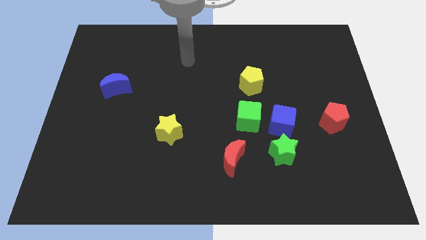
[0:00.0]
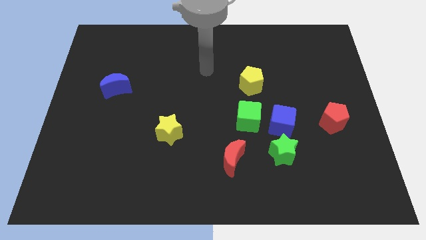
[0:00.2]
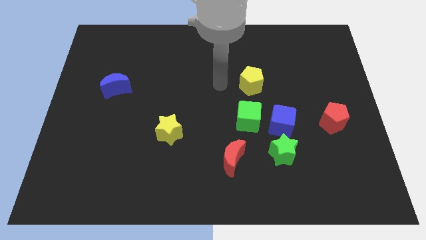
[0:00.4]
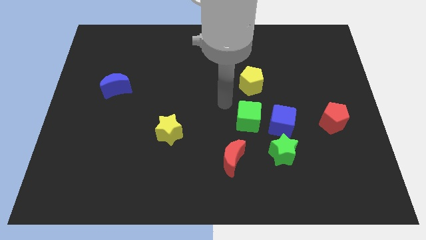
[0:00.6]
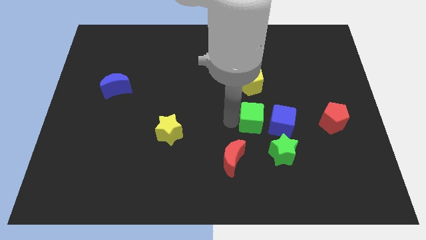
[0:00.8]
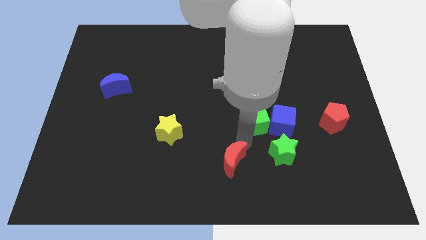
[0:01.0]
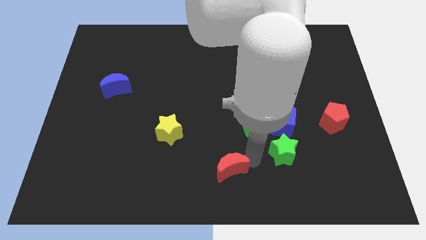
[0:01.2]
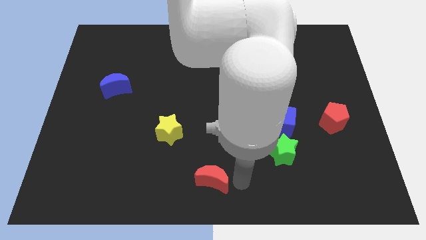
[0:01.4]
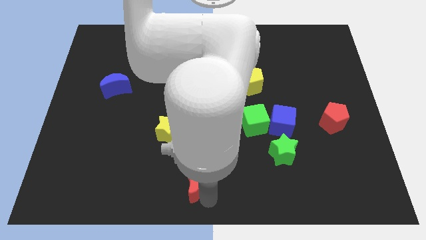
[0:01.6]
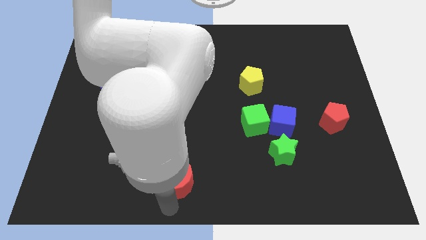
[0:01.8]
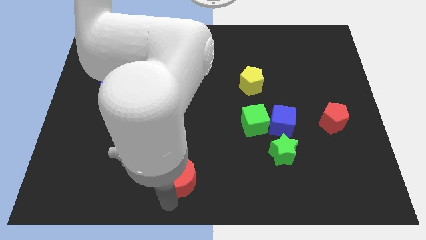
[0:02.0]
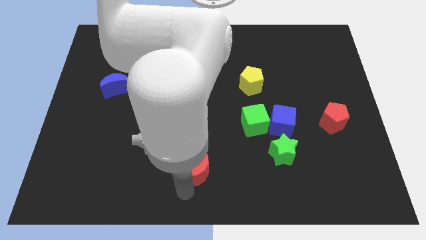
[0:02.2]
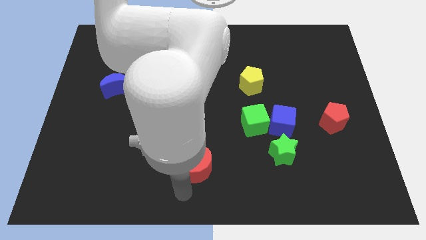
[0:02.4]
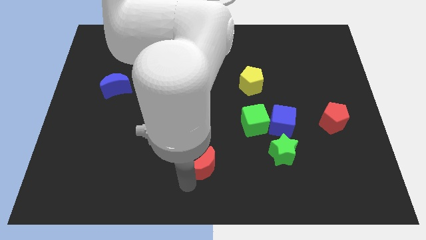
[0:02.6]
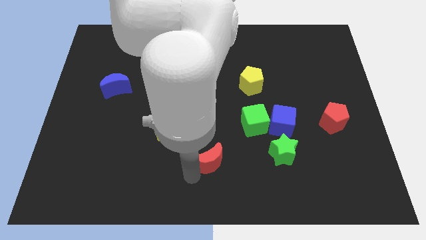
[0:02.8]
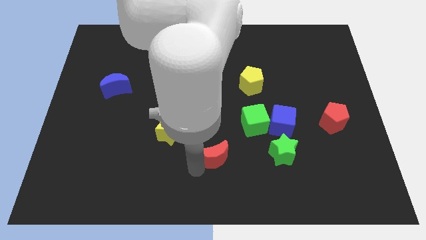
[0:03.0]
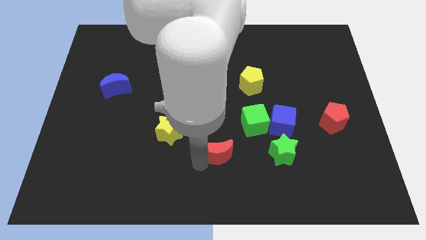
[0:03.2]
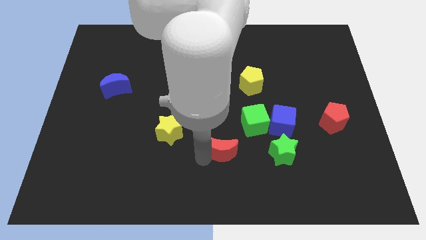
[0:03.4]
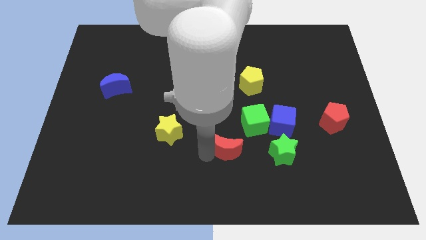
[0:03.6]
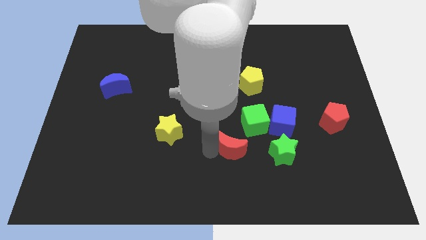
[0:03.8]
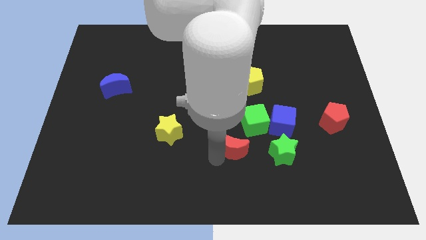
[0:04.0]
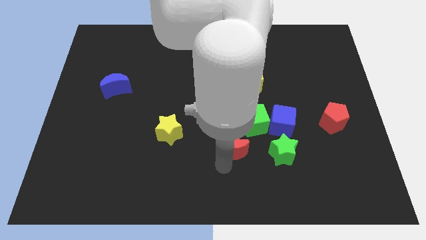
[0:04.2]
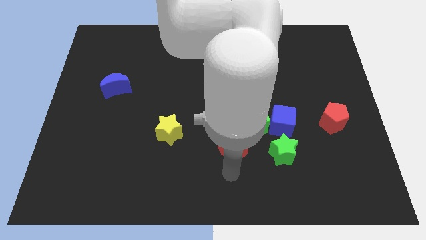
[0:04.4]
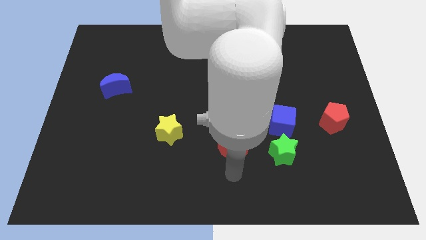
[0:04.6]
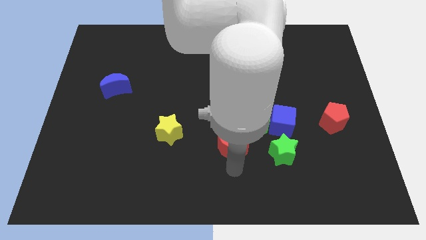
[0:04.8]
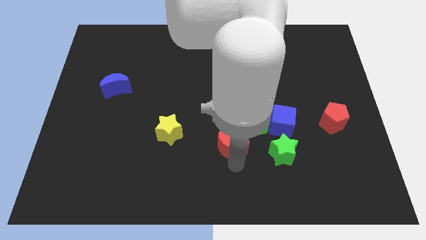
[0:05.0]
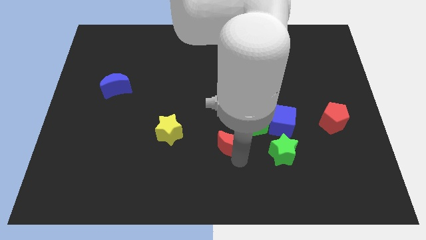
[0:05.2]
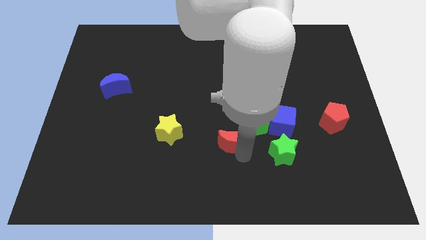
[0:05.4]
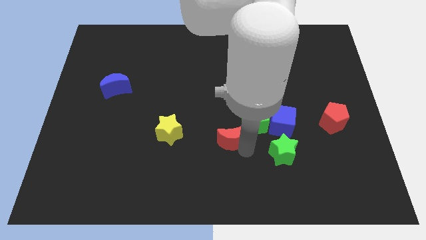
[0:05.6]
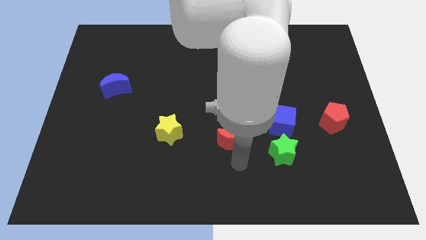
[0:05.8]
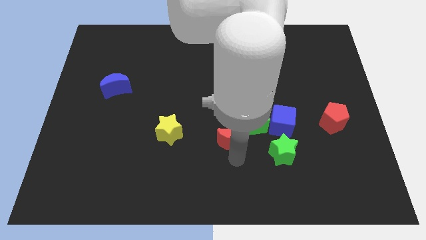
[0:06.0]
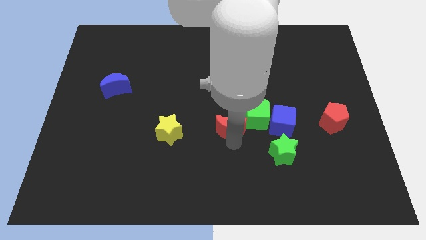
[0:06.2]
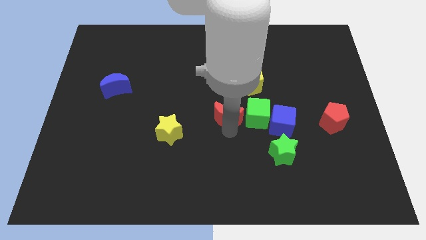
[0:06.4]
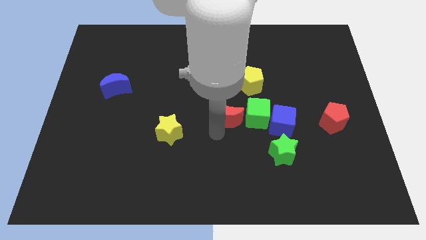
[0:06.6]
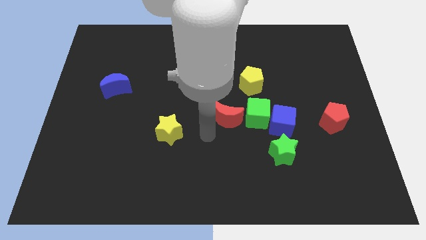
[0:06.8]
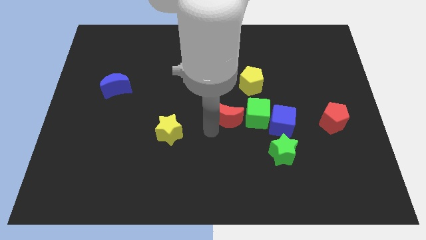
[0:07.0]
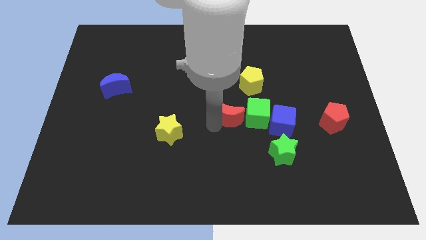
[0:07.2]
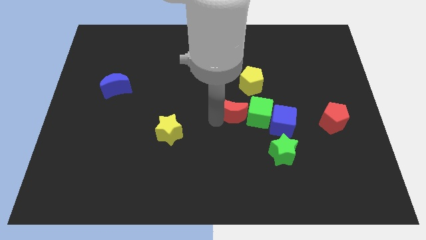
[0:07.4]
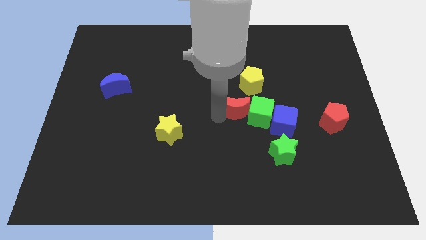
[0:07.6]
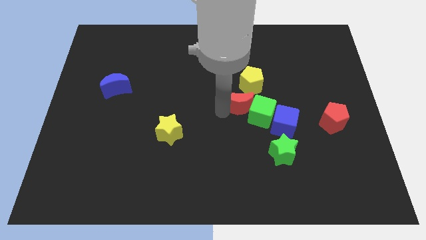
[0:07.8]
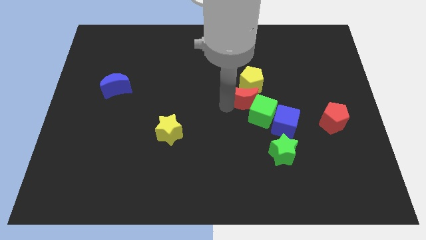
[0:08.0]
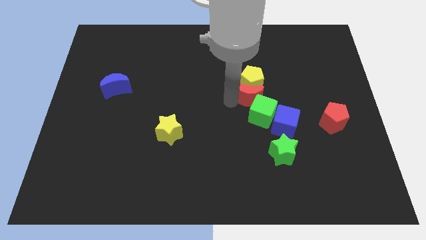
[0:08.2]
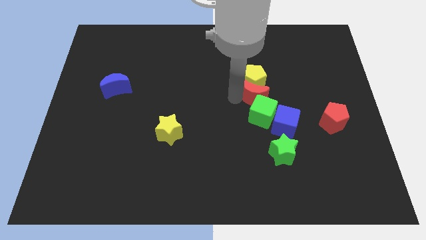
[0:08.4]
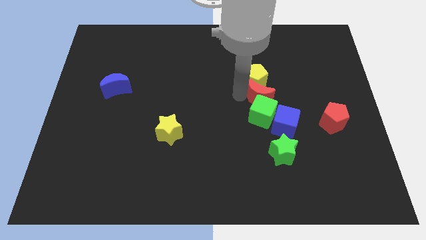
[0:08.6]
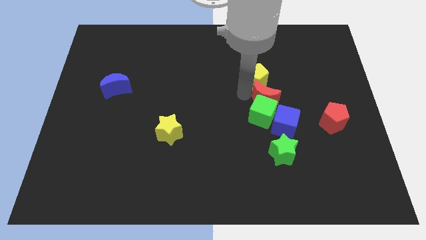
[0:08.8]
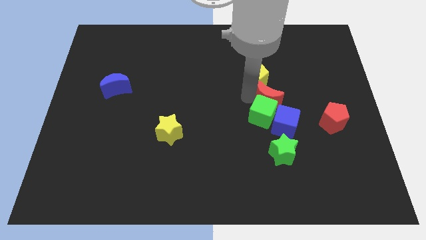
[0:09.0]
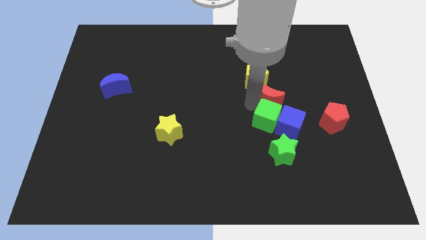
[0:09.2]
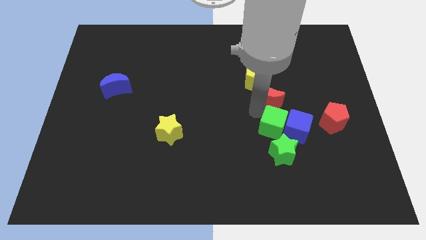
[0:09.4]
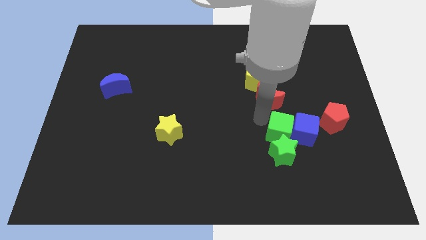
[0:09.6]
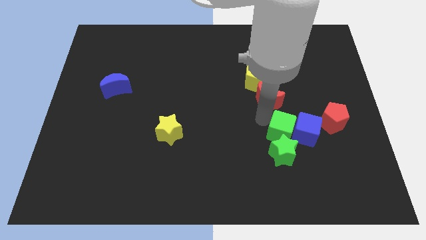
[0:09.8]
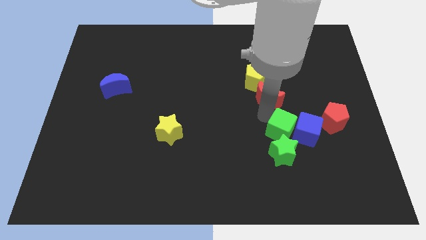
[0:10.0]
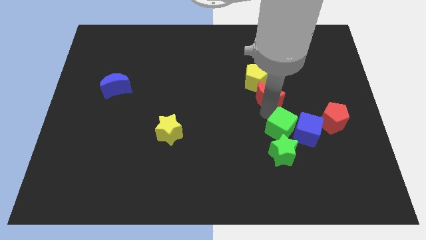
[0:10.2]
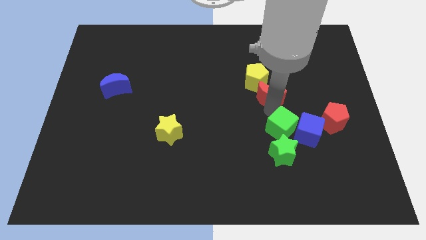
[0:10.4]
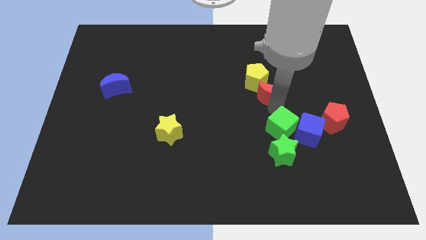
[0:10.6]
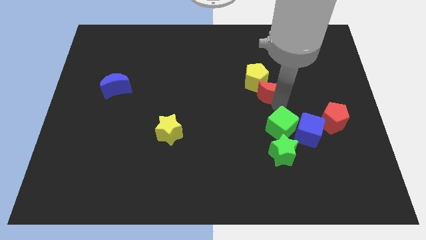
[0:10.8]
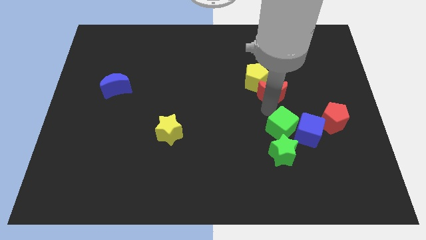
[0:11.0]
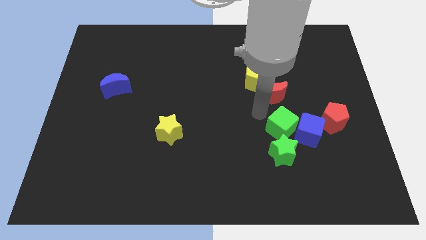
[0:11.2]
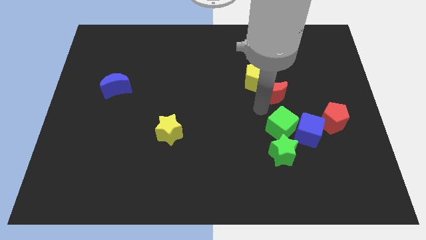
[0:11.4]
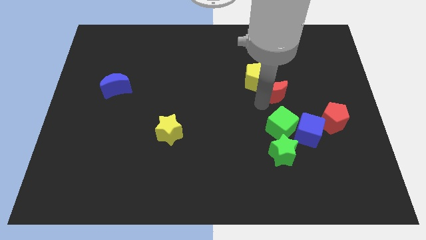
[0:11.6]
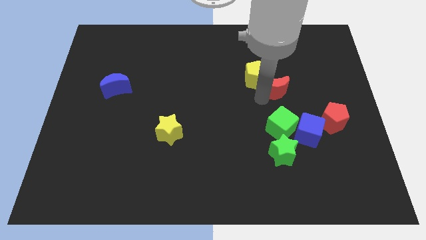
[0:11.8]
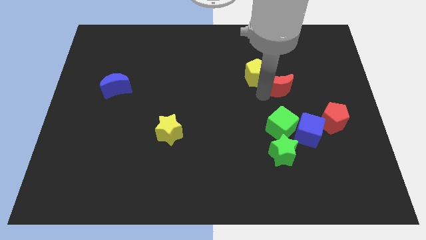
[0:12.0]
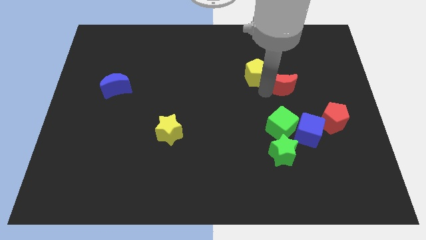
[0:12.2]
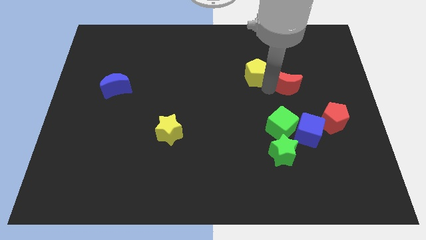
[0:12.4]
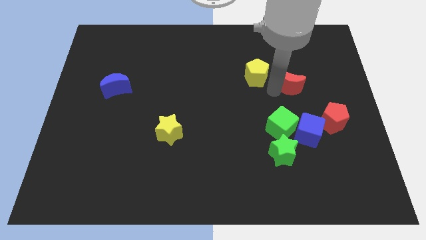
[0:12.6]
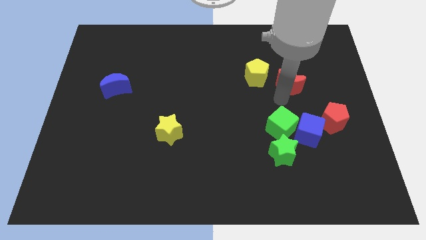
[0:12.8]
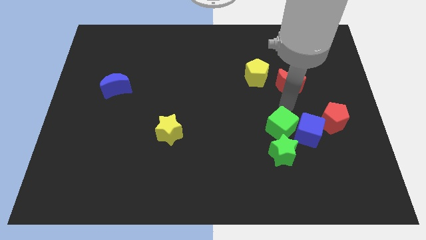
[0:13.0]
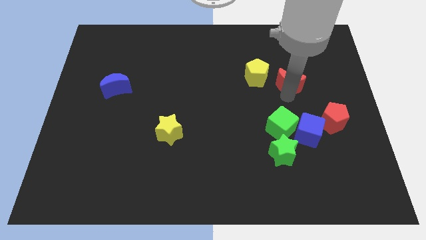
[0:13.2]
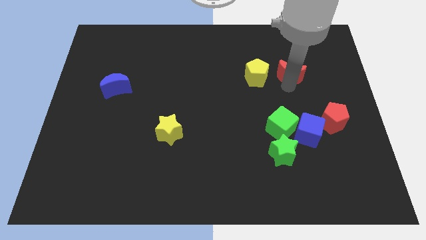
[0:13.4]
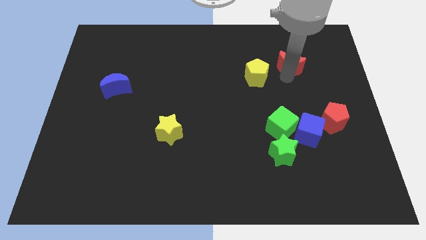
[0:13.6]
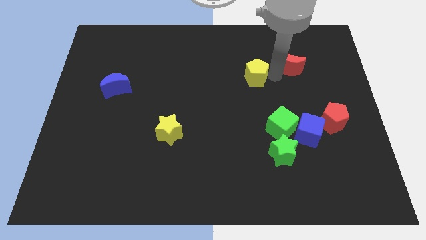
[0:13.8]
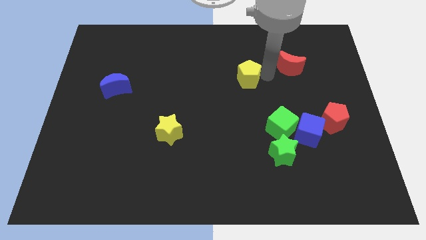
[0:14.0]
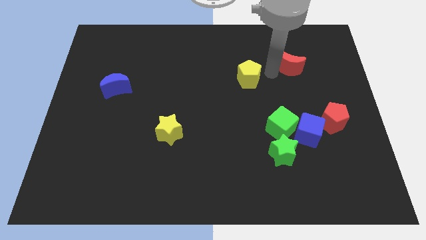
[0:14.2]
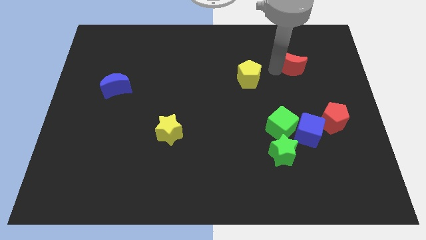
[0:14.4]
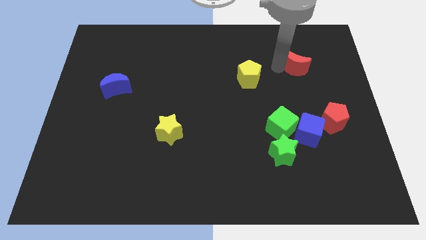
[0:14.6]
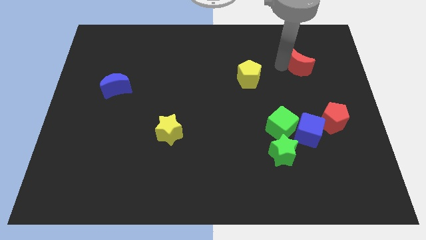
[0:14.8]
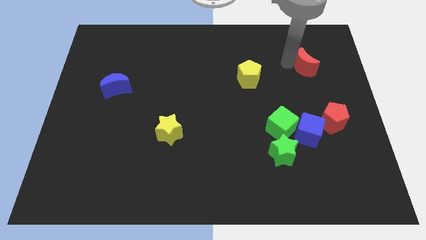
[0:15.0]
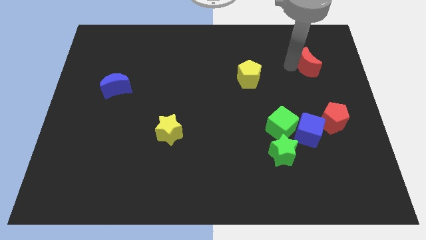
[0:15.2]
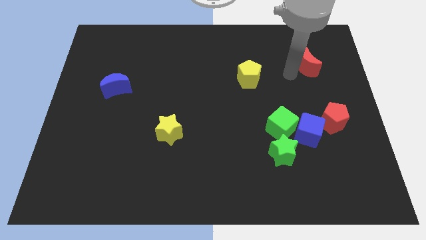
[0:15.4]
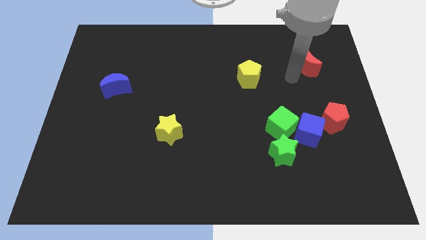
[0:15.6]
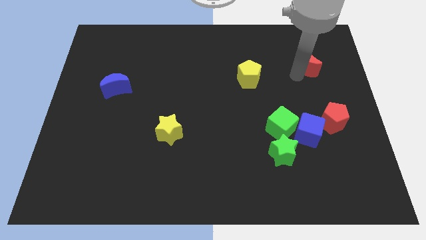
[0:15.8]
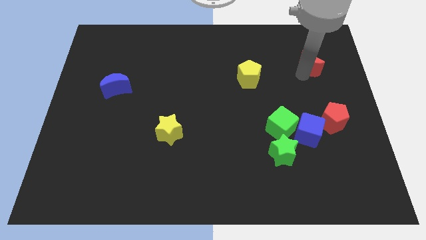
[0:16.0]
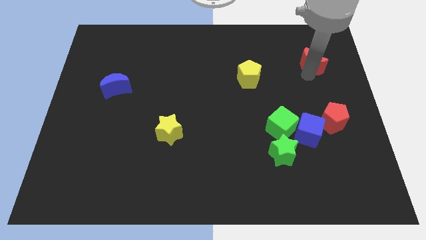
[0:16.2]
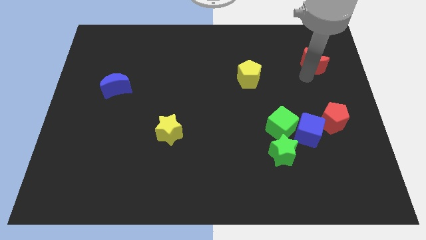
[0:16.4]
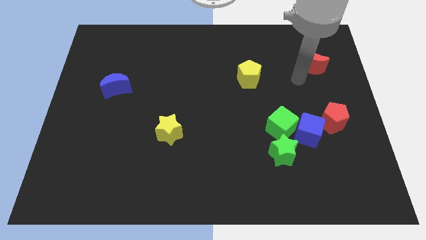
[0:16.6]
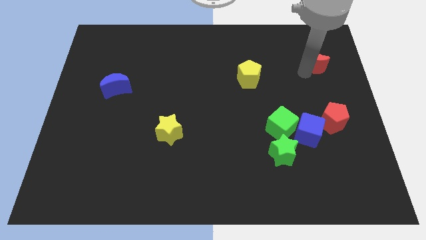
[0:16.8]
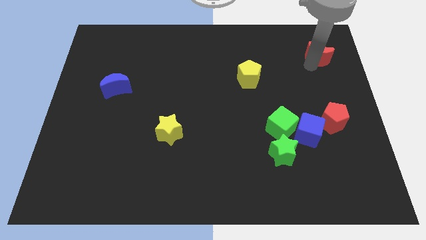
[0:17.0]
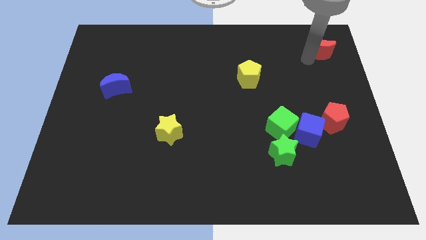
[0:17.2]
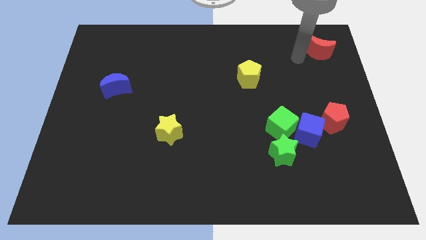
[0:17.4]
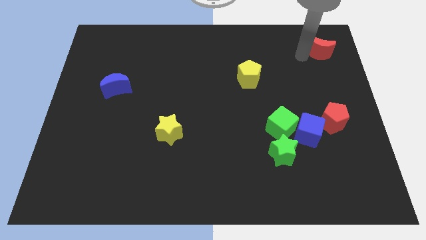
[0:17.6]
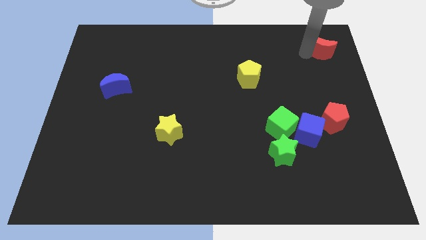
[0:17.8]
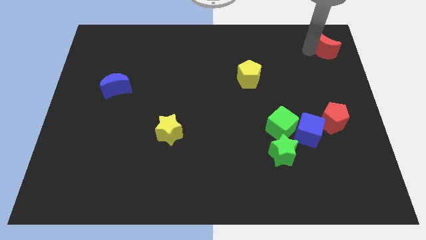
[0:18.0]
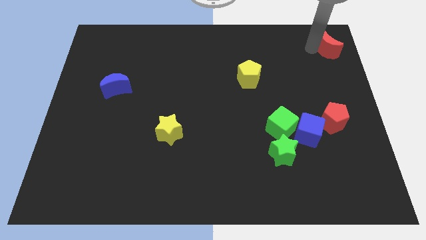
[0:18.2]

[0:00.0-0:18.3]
put the red moon to the top right corner
